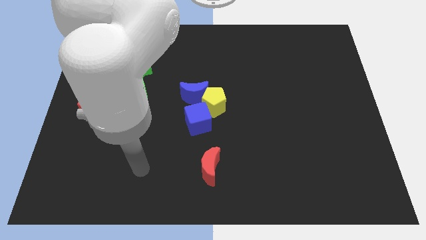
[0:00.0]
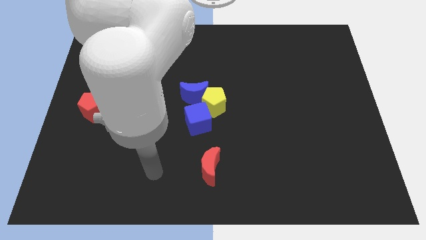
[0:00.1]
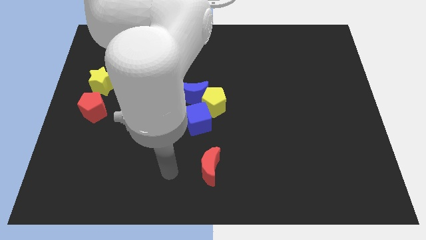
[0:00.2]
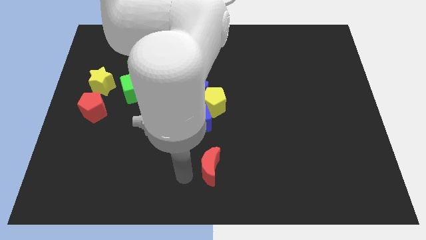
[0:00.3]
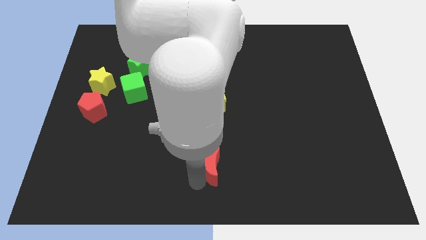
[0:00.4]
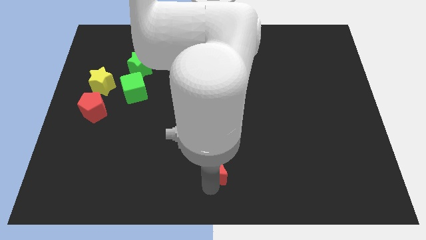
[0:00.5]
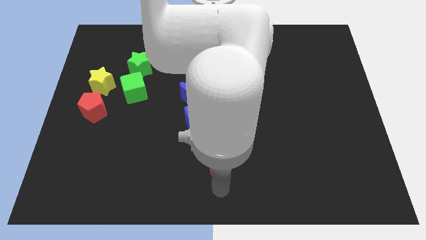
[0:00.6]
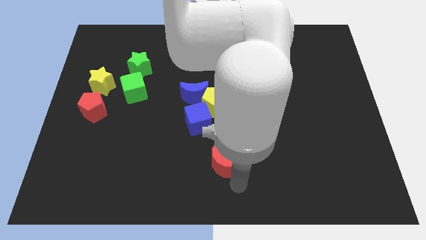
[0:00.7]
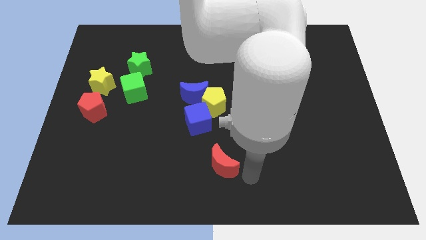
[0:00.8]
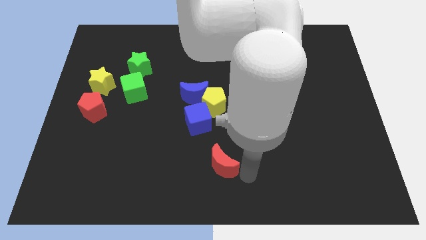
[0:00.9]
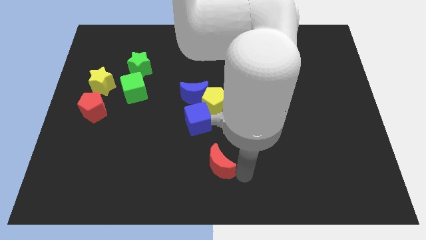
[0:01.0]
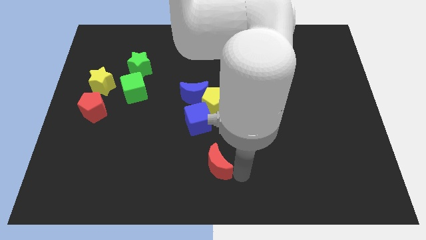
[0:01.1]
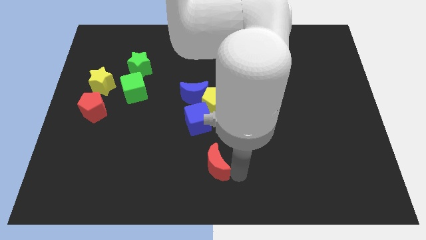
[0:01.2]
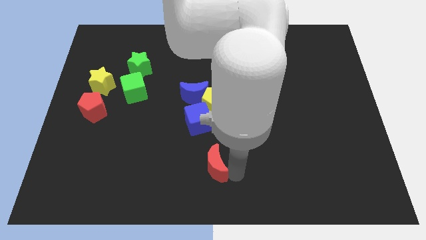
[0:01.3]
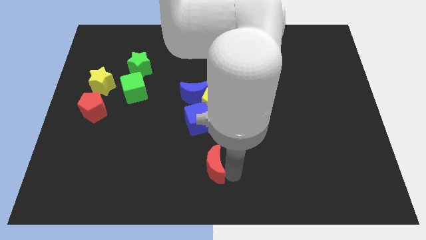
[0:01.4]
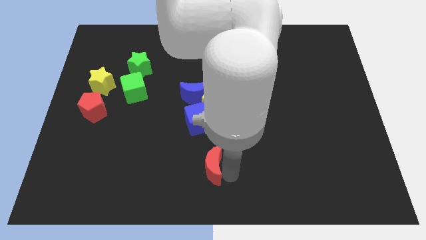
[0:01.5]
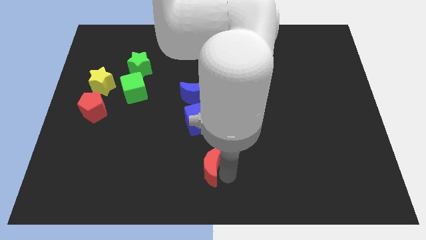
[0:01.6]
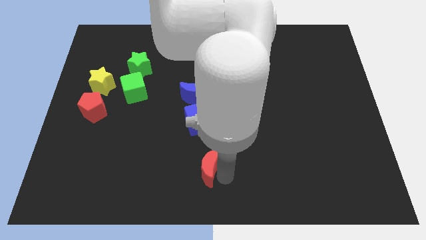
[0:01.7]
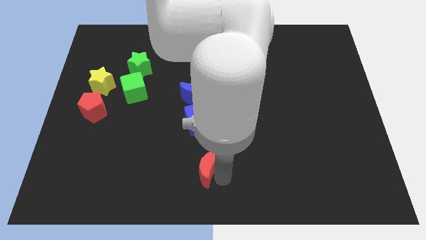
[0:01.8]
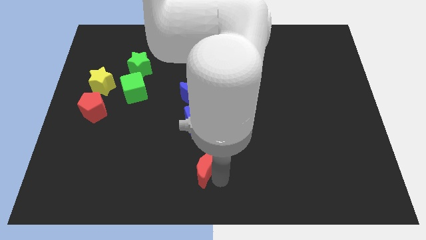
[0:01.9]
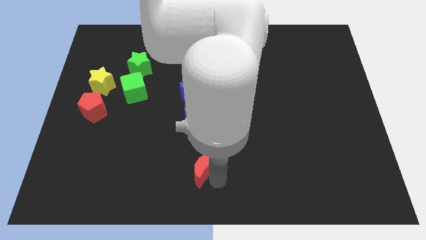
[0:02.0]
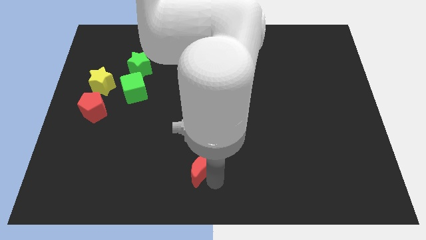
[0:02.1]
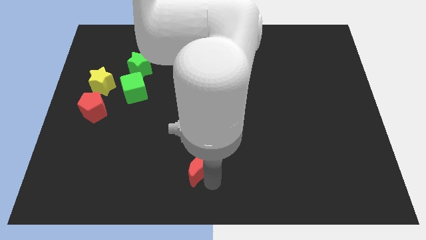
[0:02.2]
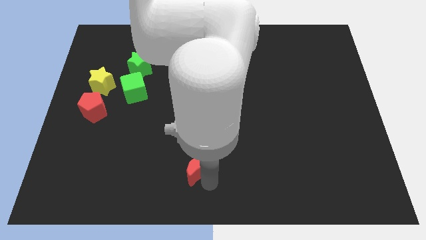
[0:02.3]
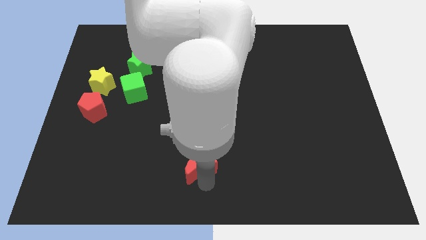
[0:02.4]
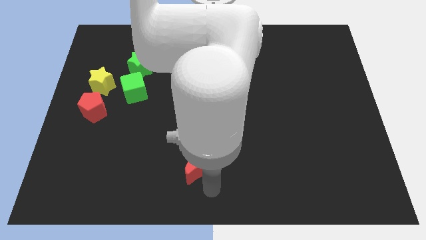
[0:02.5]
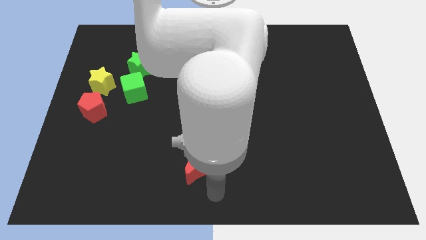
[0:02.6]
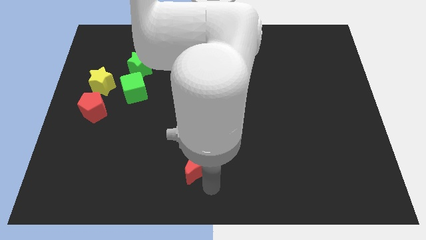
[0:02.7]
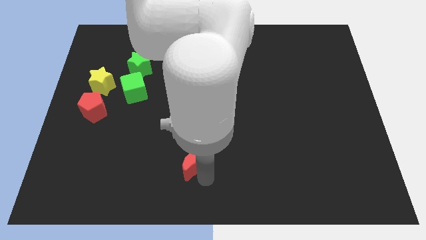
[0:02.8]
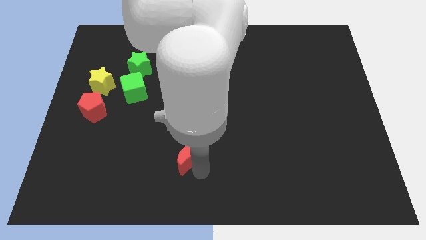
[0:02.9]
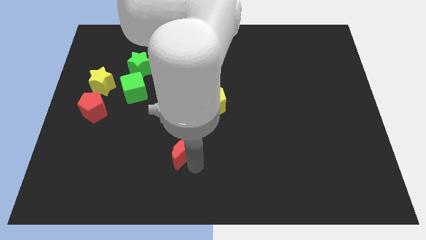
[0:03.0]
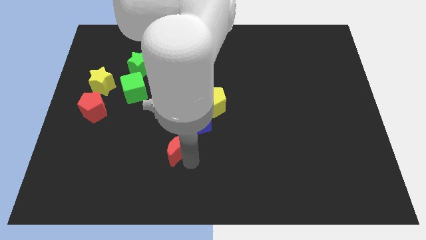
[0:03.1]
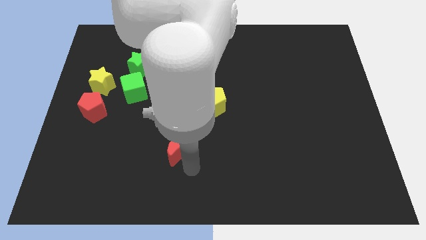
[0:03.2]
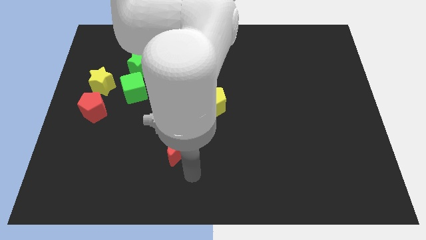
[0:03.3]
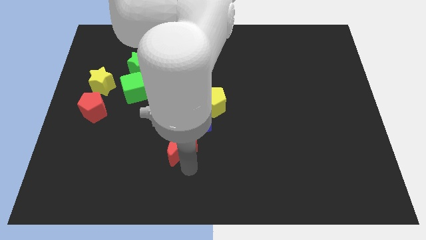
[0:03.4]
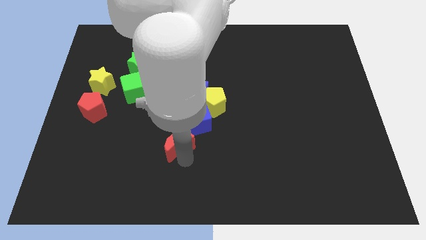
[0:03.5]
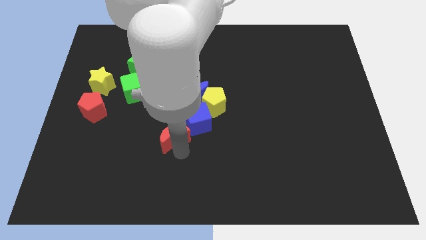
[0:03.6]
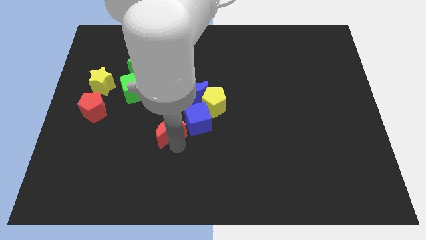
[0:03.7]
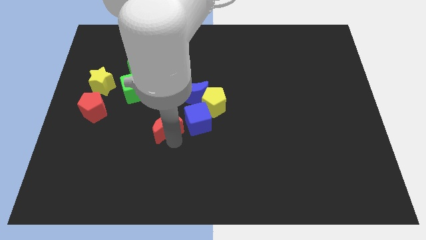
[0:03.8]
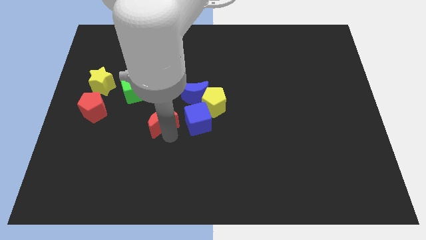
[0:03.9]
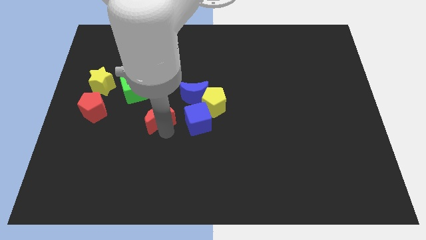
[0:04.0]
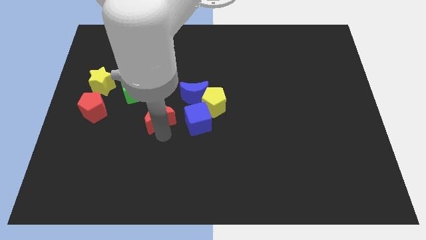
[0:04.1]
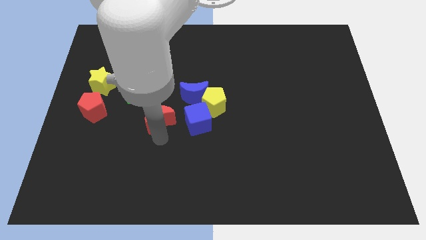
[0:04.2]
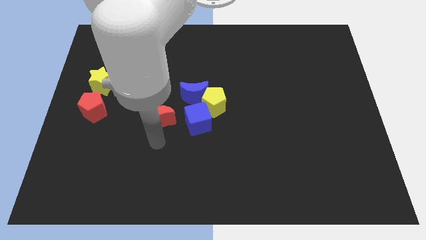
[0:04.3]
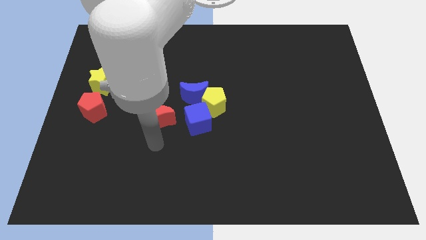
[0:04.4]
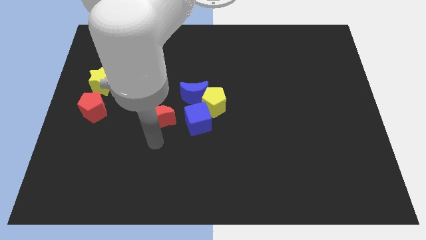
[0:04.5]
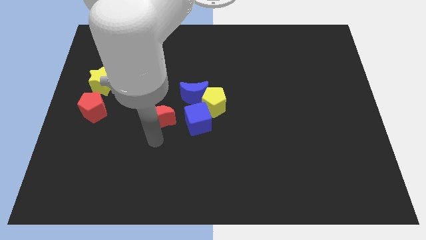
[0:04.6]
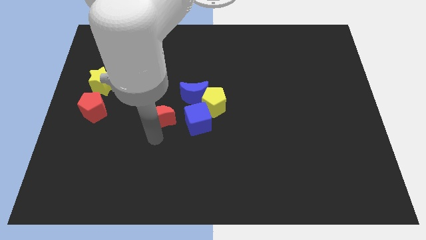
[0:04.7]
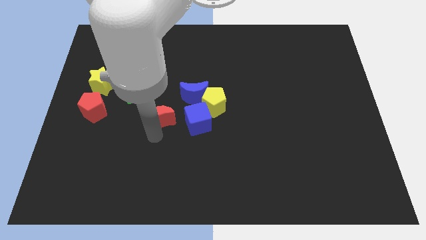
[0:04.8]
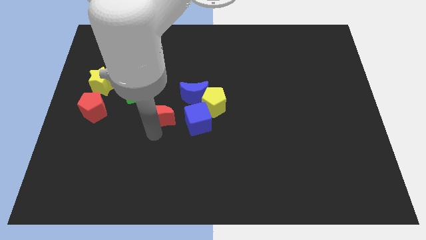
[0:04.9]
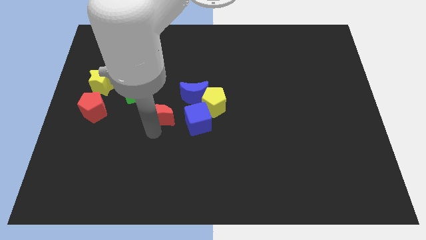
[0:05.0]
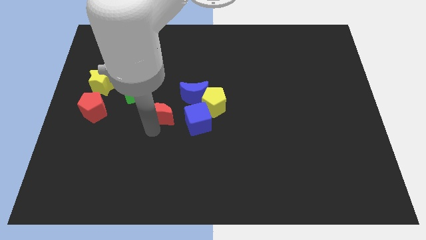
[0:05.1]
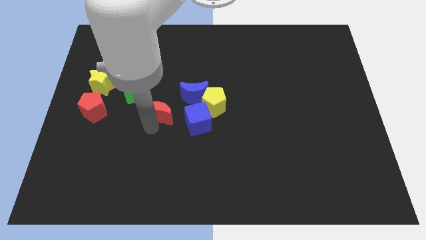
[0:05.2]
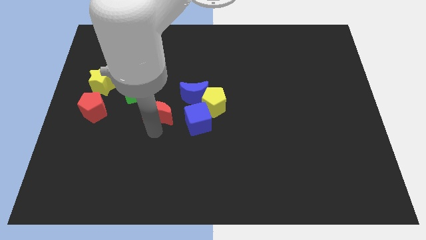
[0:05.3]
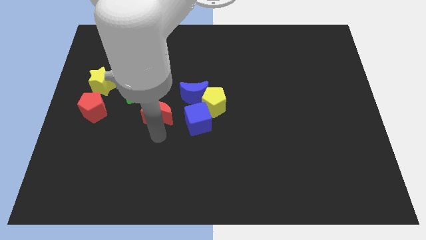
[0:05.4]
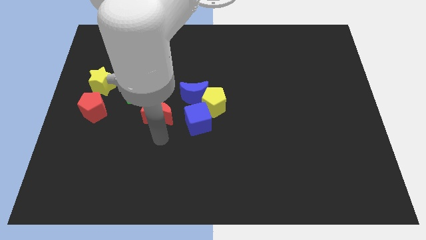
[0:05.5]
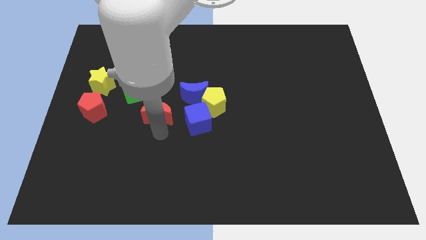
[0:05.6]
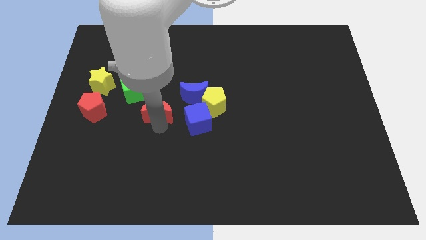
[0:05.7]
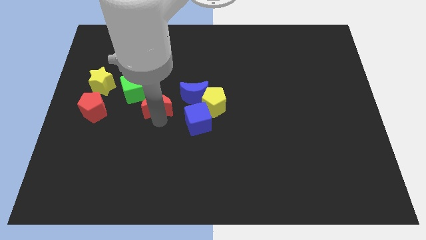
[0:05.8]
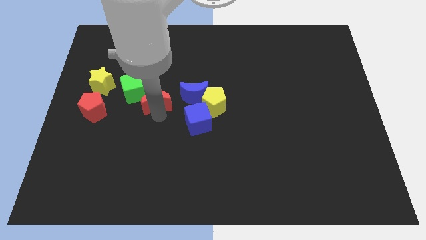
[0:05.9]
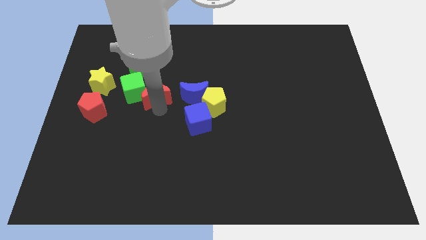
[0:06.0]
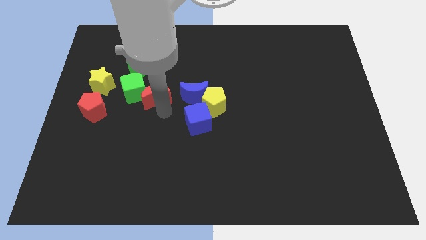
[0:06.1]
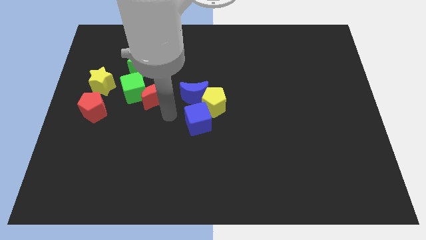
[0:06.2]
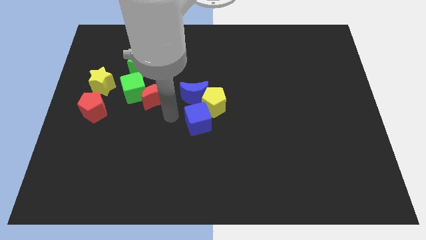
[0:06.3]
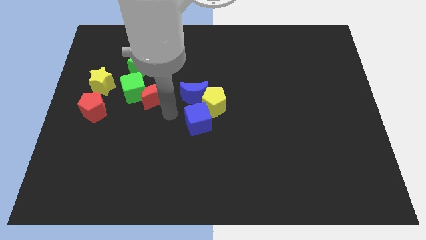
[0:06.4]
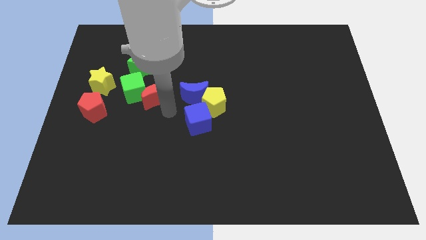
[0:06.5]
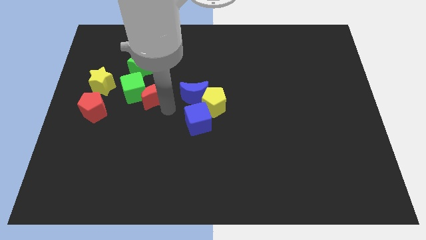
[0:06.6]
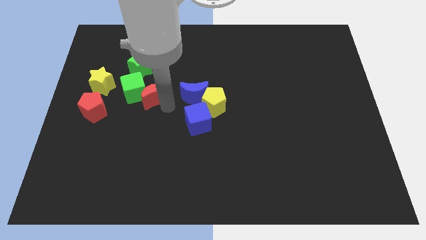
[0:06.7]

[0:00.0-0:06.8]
put the red moon to the right of the yellow star

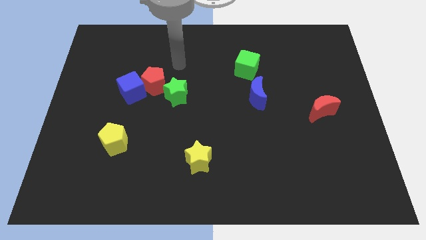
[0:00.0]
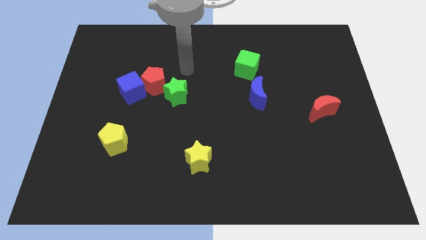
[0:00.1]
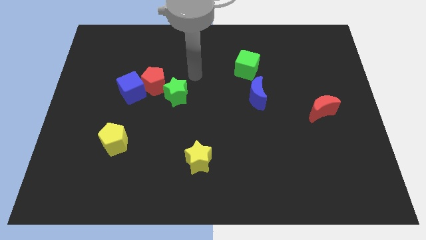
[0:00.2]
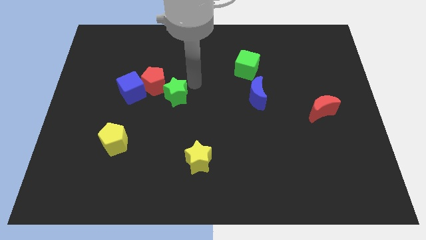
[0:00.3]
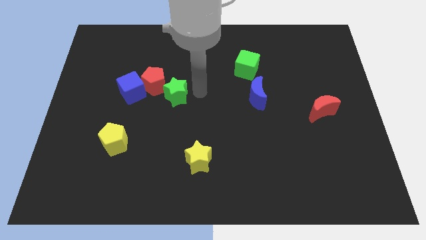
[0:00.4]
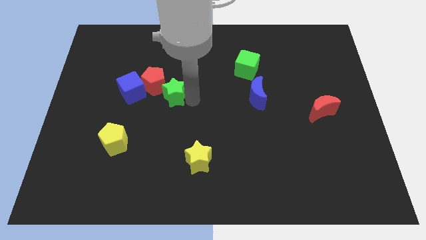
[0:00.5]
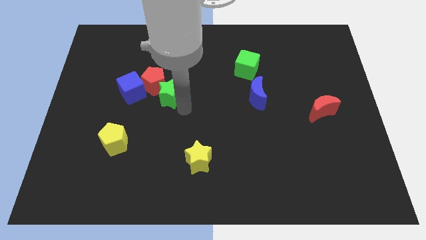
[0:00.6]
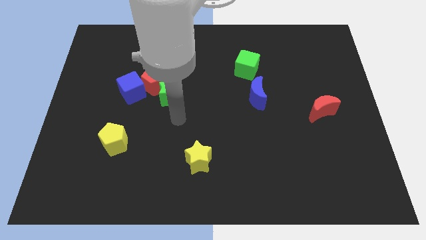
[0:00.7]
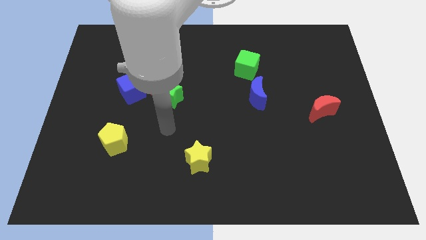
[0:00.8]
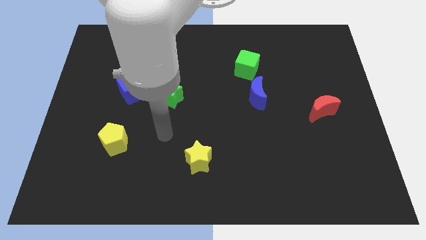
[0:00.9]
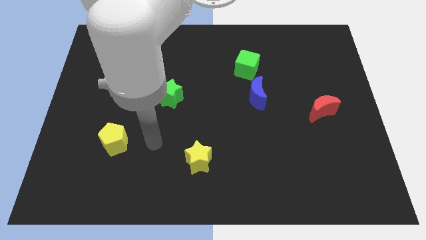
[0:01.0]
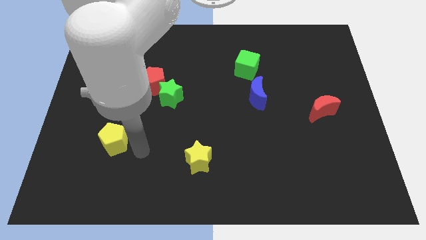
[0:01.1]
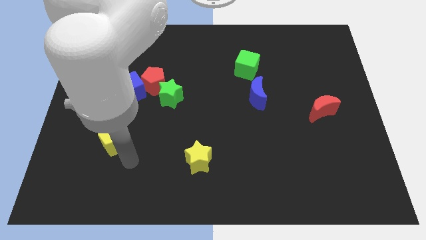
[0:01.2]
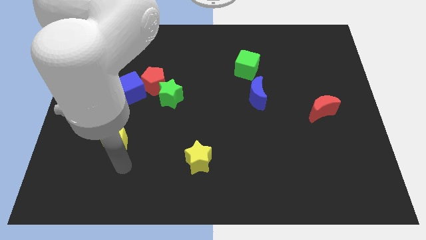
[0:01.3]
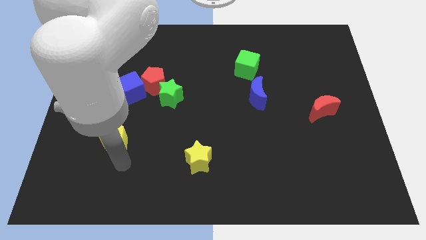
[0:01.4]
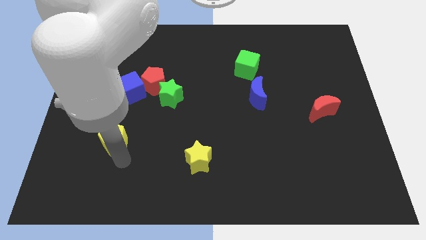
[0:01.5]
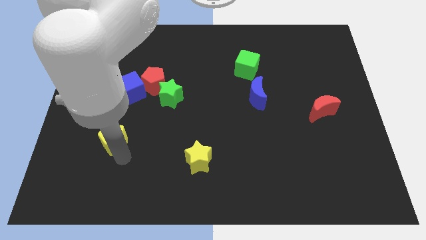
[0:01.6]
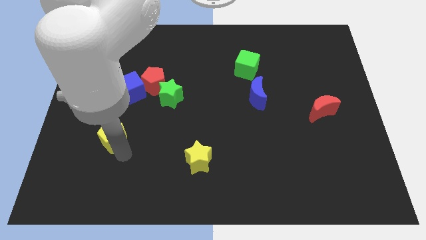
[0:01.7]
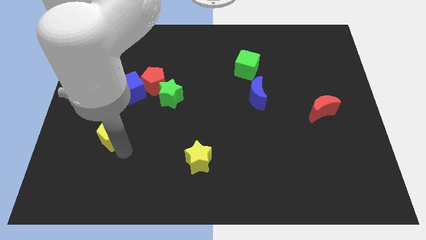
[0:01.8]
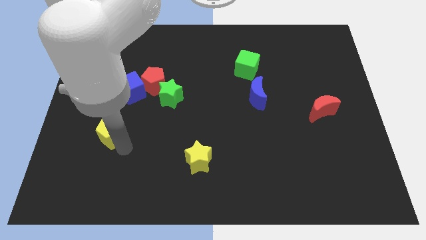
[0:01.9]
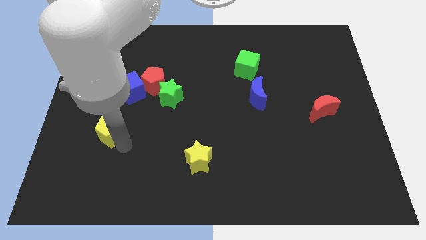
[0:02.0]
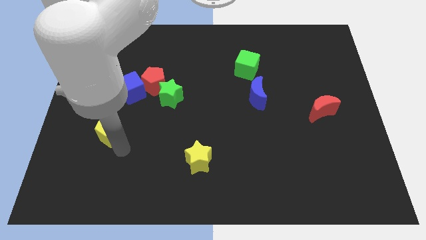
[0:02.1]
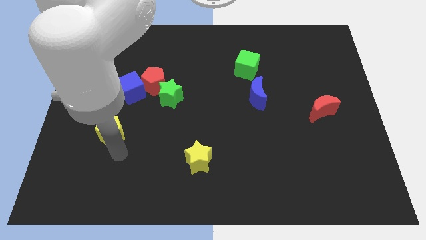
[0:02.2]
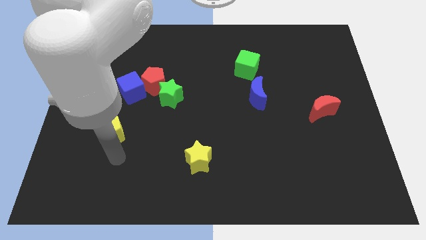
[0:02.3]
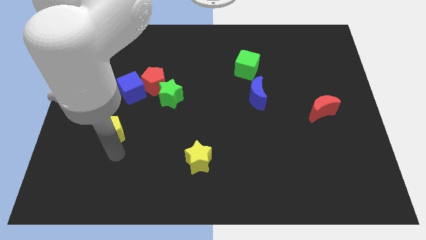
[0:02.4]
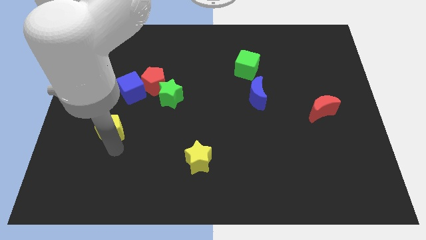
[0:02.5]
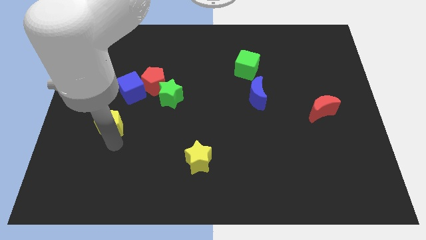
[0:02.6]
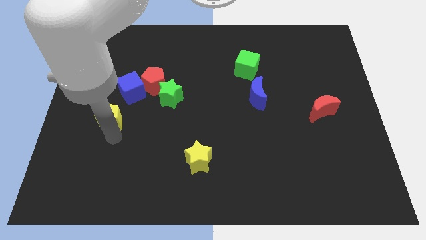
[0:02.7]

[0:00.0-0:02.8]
push the yellow pentagon diagonally down and to the left of the blue cube
